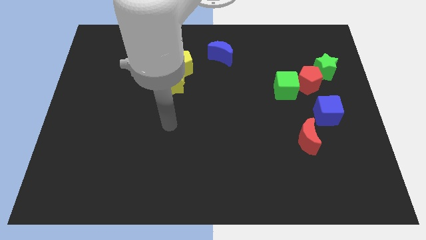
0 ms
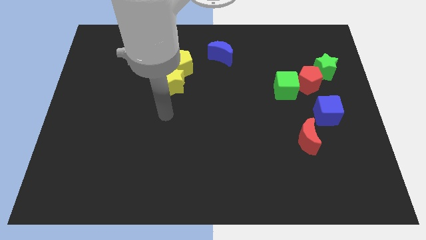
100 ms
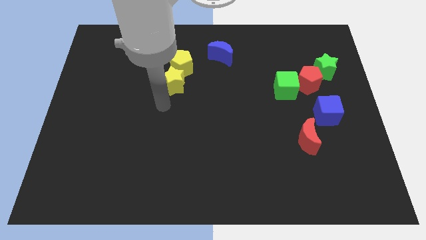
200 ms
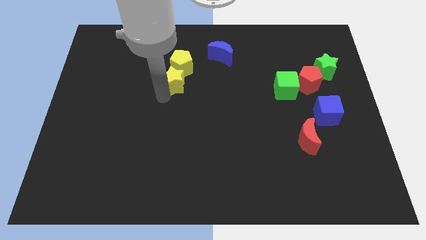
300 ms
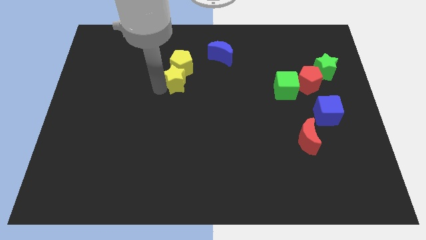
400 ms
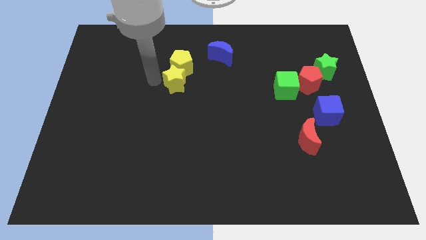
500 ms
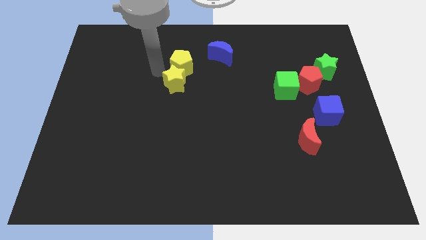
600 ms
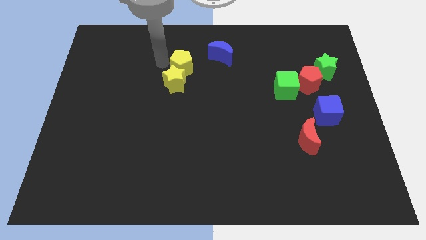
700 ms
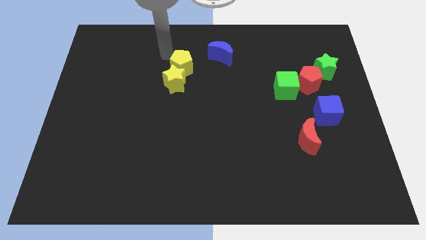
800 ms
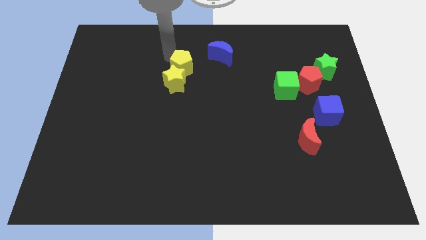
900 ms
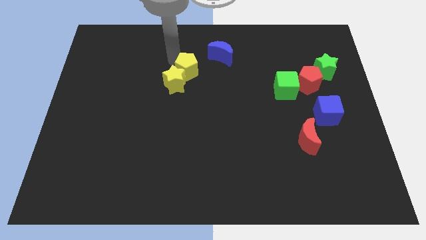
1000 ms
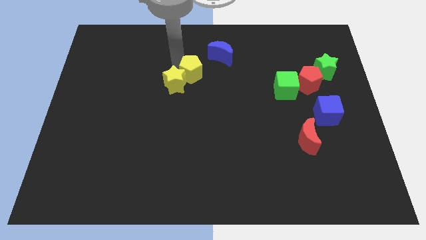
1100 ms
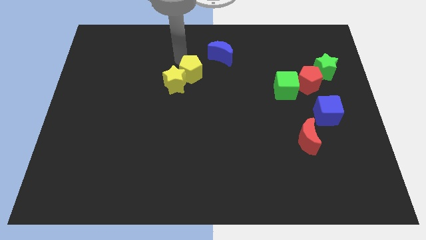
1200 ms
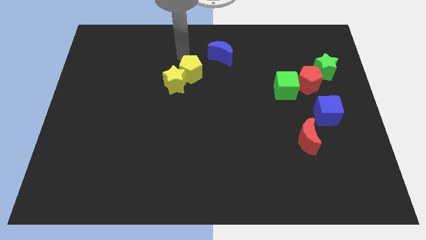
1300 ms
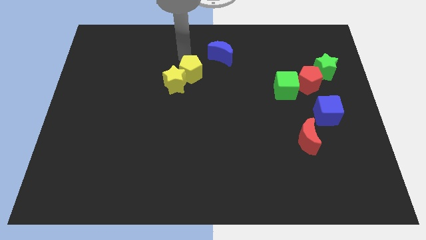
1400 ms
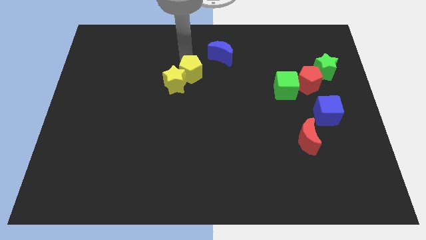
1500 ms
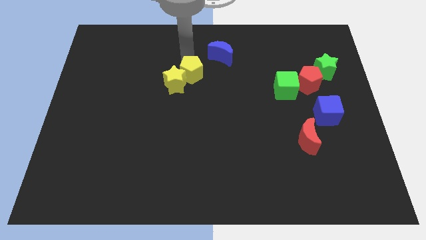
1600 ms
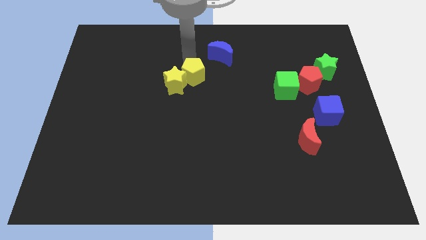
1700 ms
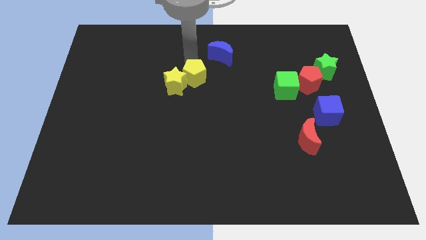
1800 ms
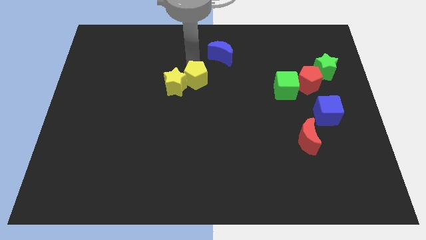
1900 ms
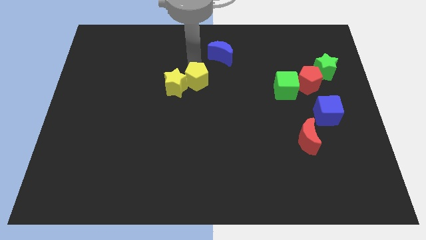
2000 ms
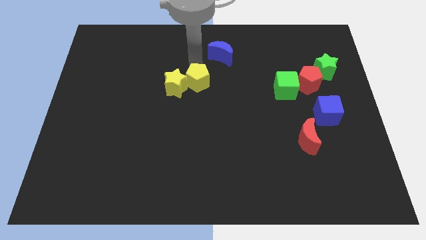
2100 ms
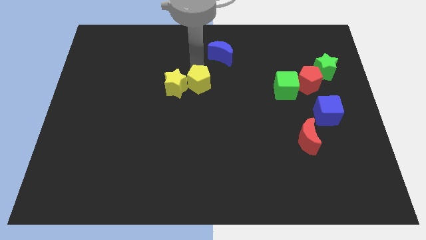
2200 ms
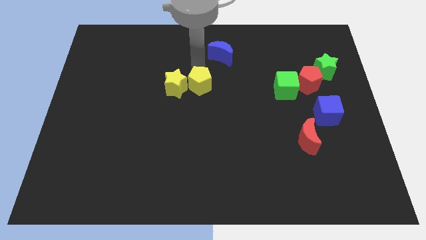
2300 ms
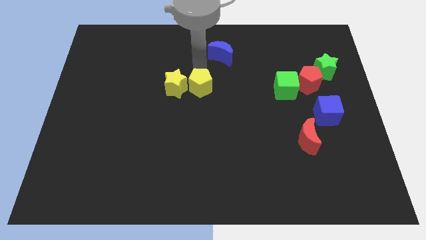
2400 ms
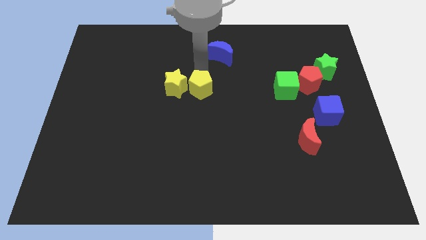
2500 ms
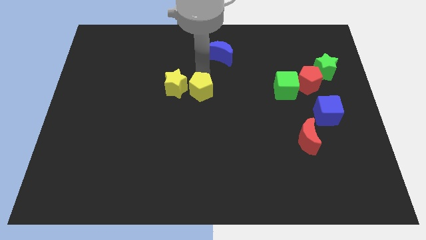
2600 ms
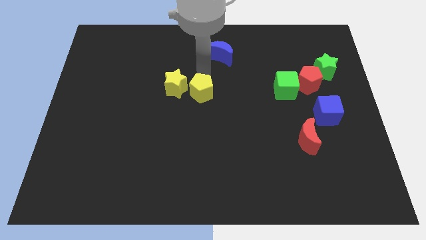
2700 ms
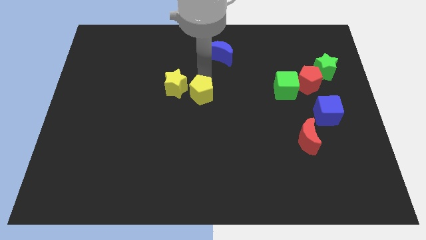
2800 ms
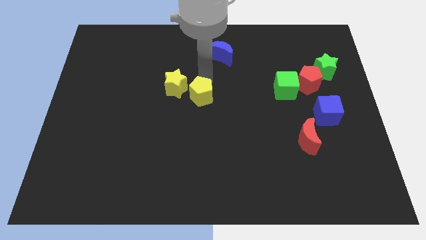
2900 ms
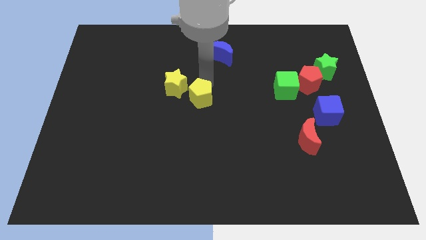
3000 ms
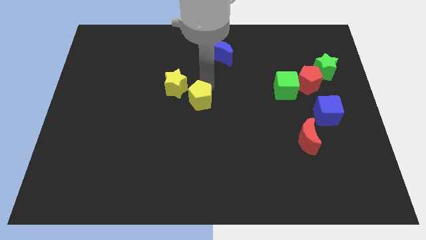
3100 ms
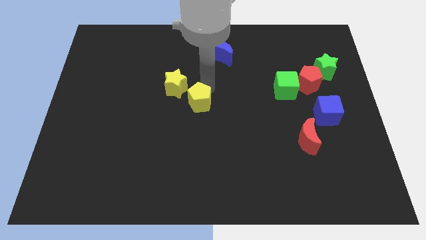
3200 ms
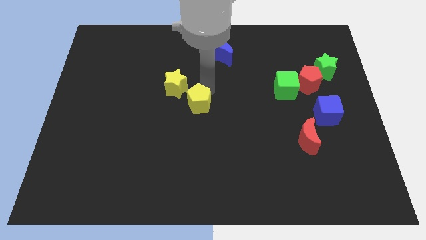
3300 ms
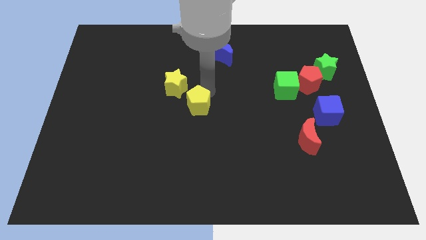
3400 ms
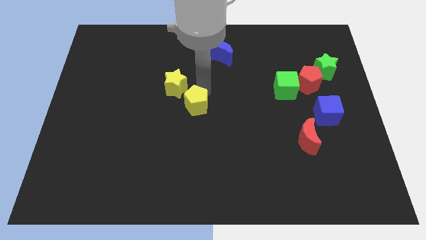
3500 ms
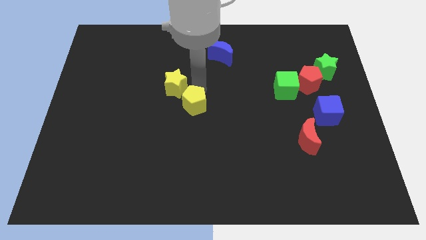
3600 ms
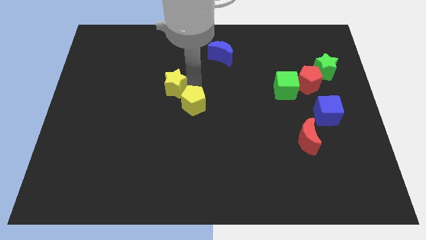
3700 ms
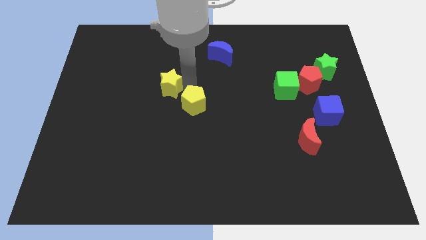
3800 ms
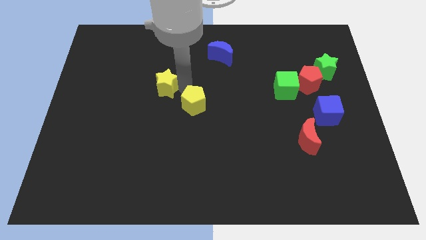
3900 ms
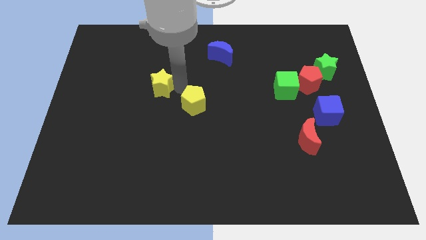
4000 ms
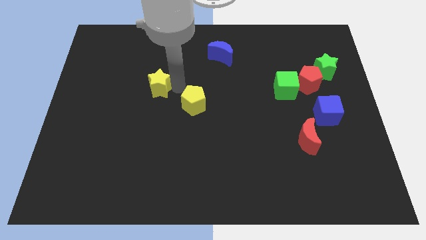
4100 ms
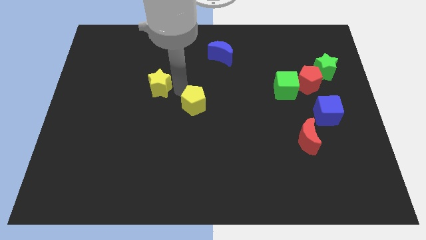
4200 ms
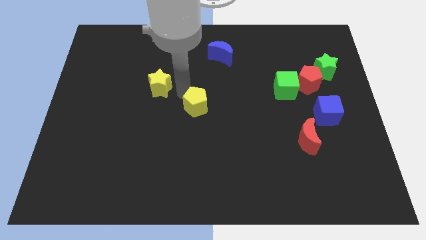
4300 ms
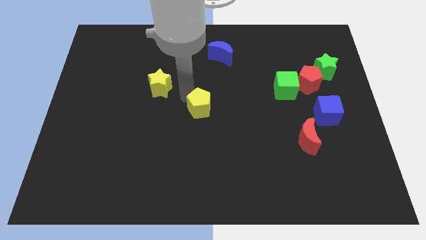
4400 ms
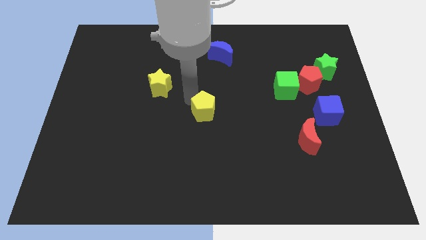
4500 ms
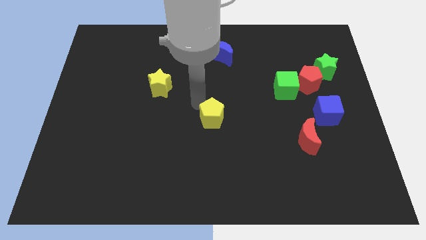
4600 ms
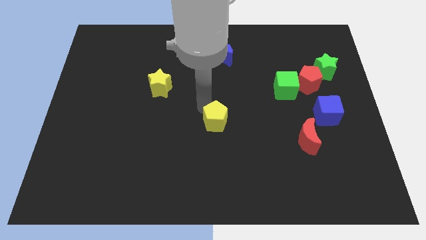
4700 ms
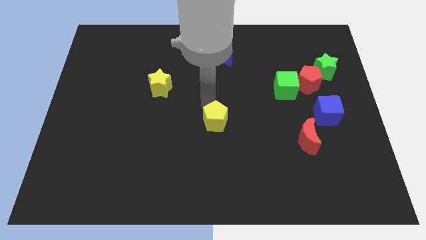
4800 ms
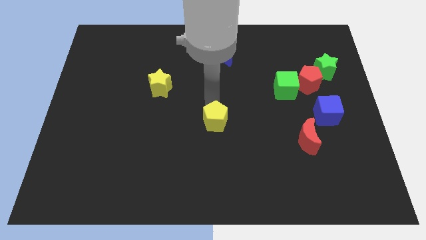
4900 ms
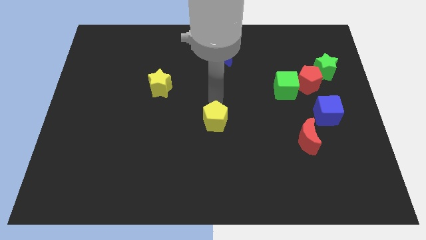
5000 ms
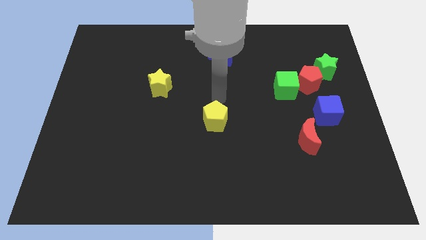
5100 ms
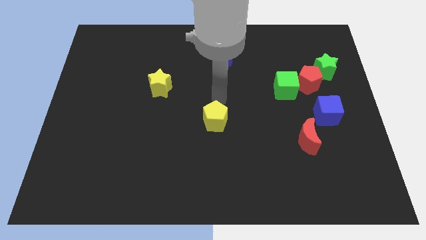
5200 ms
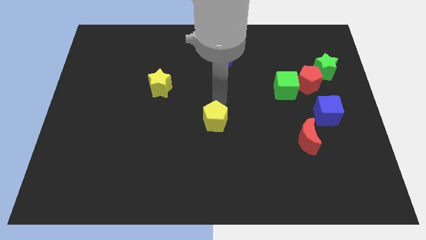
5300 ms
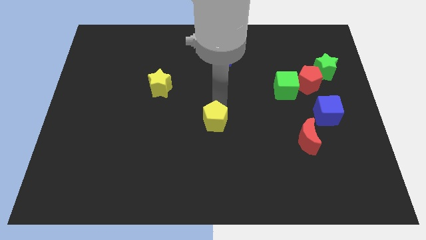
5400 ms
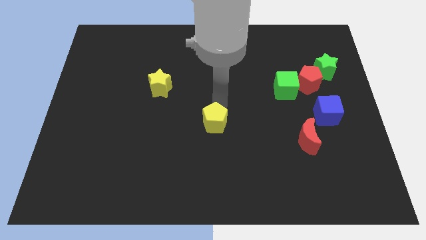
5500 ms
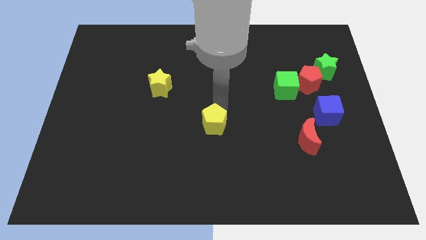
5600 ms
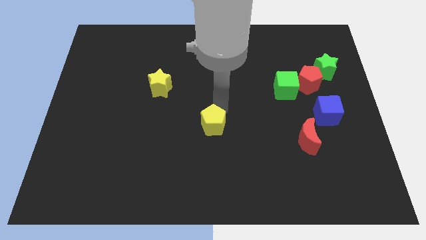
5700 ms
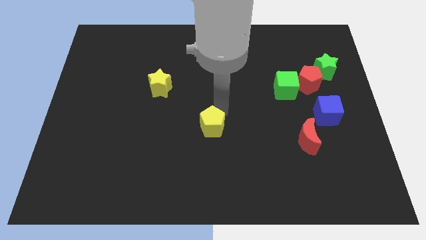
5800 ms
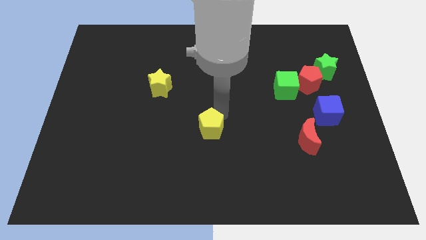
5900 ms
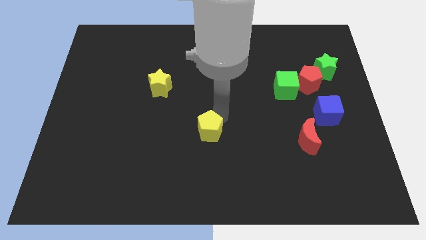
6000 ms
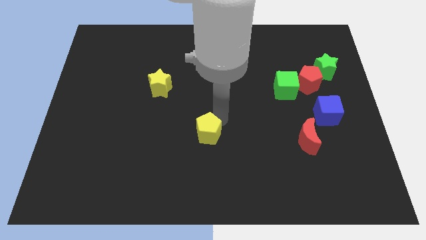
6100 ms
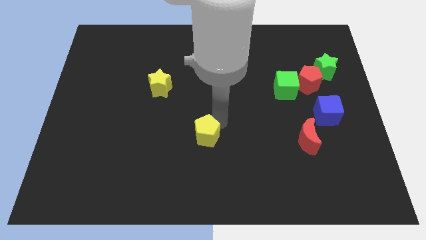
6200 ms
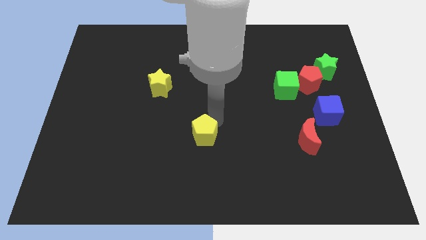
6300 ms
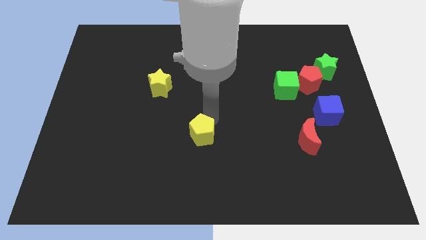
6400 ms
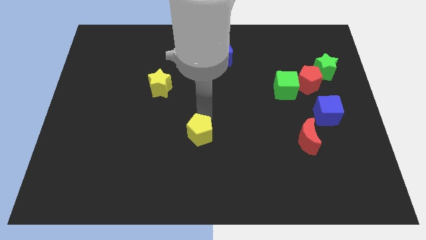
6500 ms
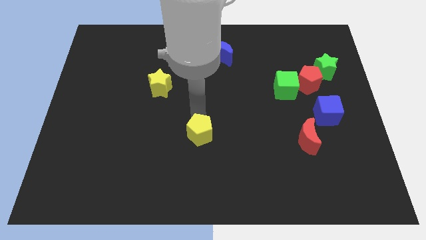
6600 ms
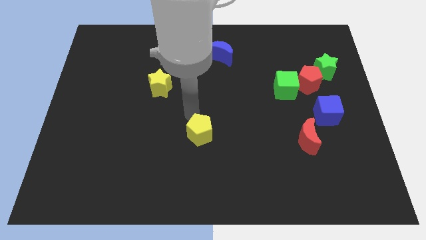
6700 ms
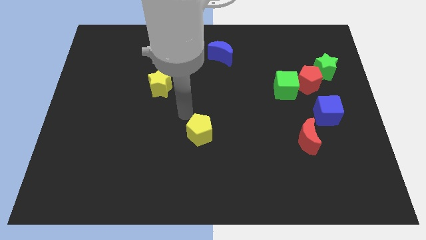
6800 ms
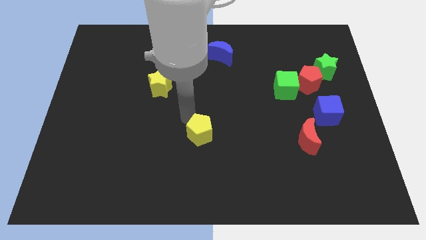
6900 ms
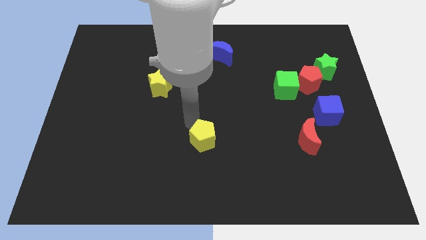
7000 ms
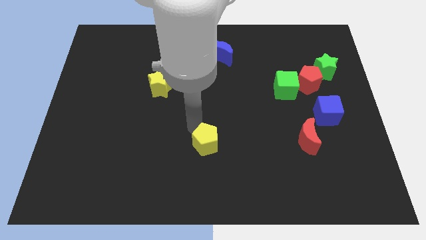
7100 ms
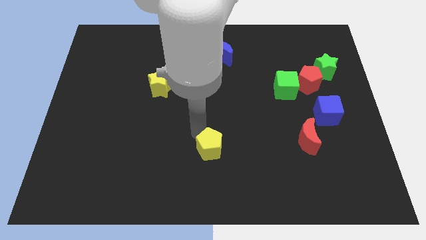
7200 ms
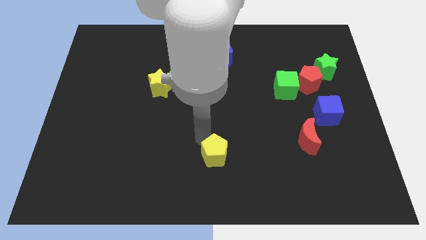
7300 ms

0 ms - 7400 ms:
put the yellow pentagon to the bottom
